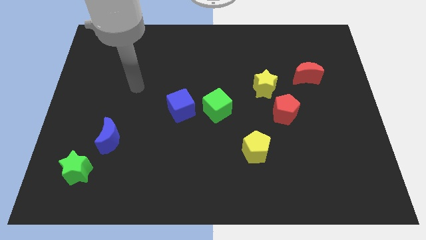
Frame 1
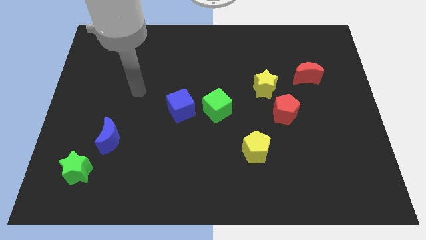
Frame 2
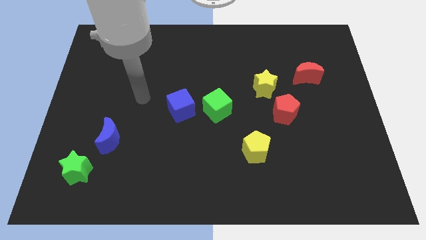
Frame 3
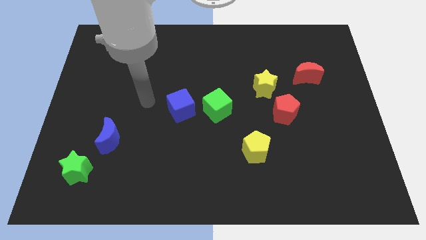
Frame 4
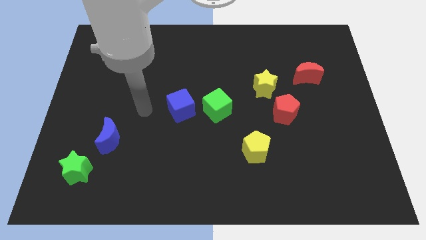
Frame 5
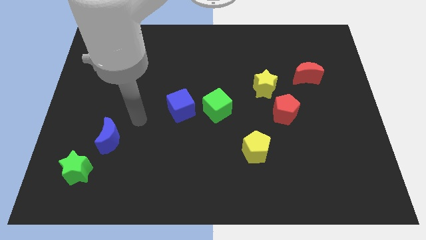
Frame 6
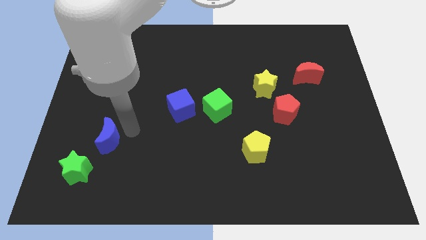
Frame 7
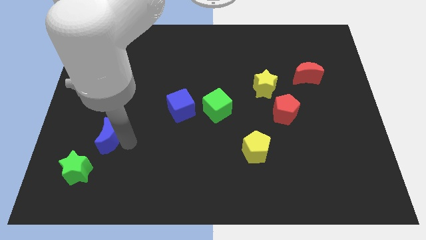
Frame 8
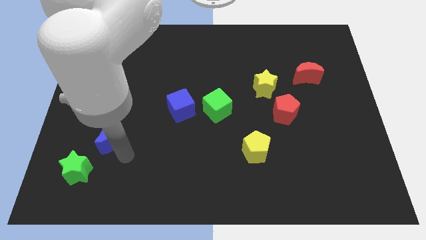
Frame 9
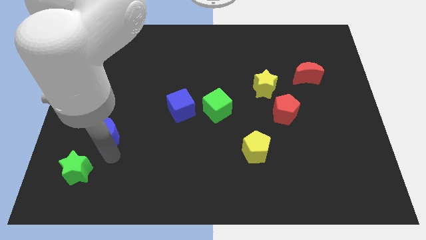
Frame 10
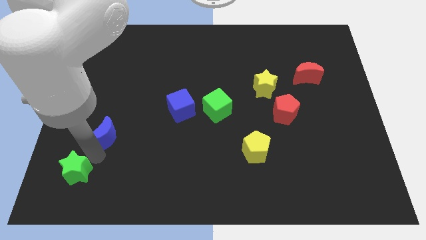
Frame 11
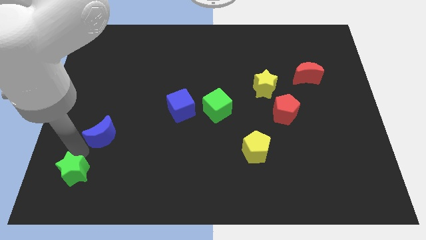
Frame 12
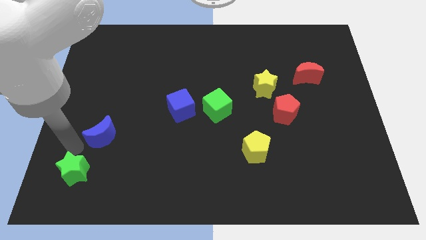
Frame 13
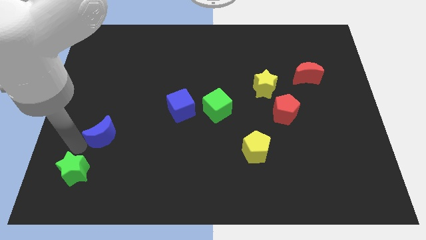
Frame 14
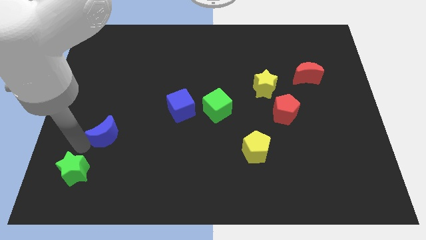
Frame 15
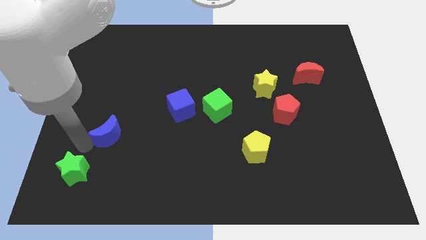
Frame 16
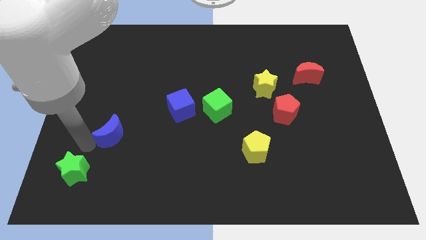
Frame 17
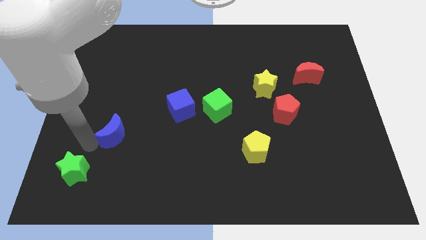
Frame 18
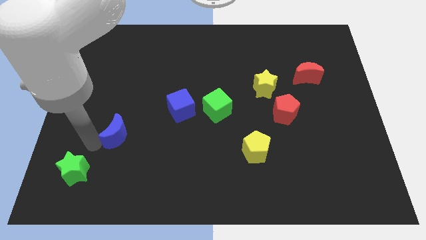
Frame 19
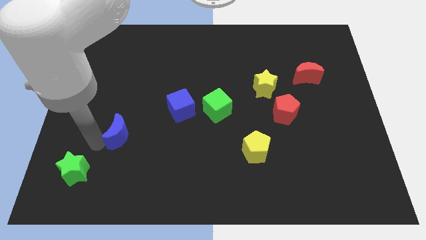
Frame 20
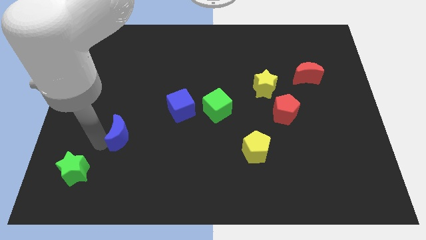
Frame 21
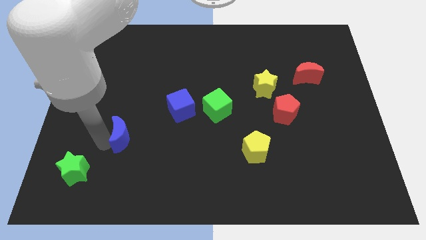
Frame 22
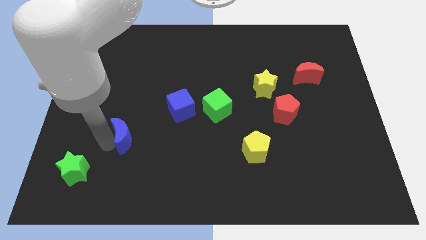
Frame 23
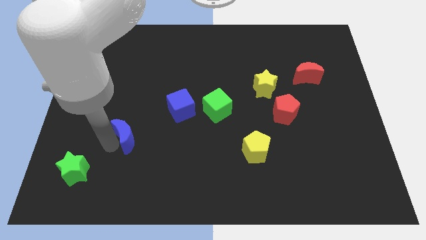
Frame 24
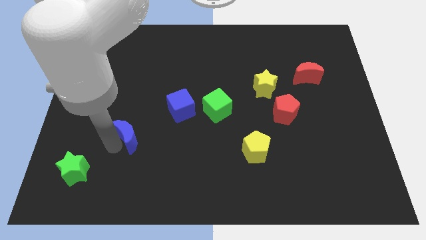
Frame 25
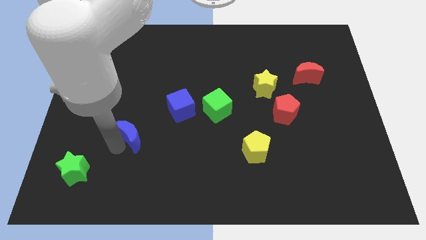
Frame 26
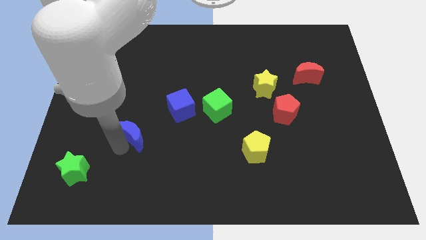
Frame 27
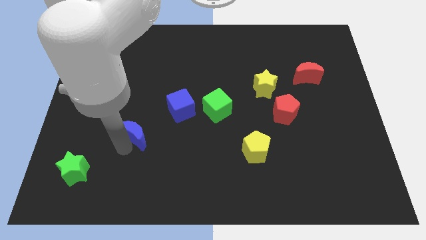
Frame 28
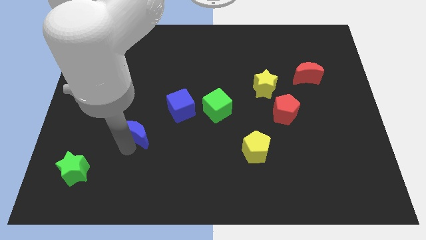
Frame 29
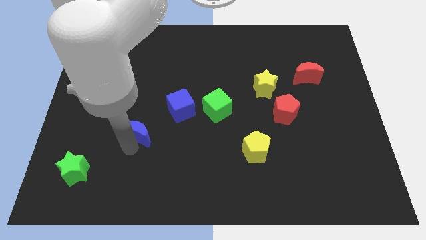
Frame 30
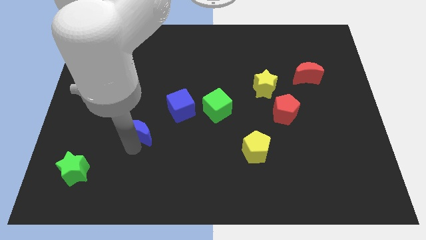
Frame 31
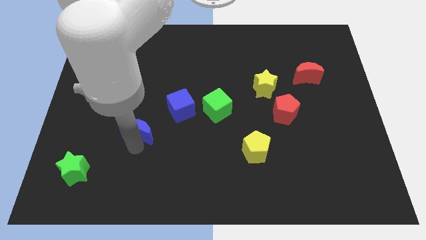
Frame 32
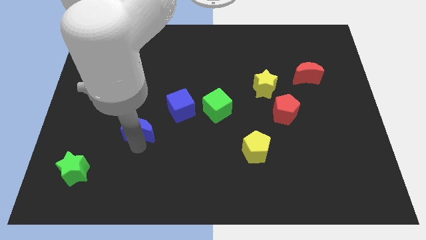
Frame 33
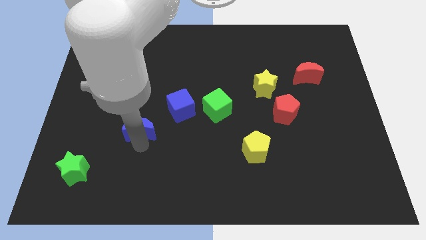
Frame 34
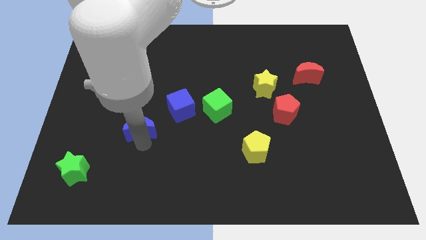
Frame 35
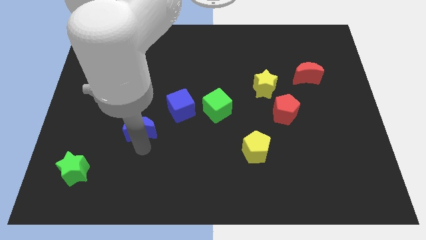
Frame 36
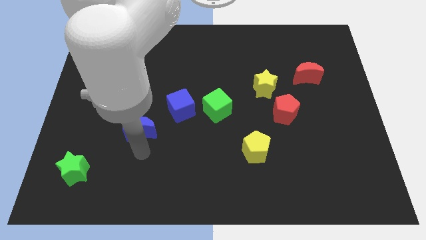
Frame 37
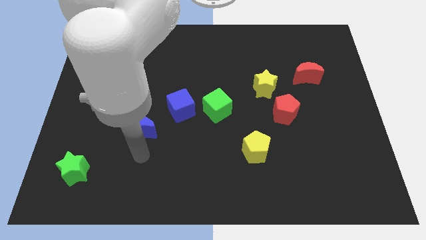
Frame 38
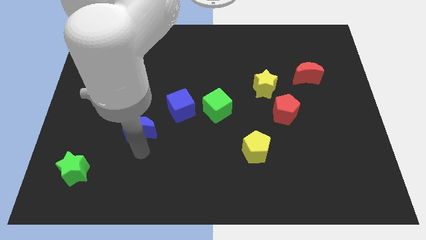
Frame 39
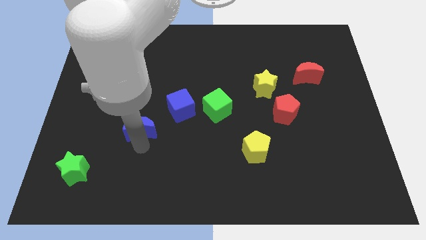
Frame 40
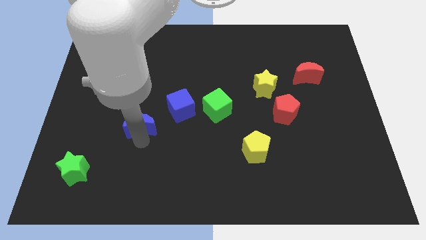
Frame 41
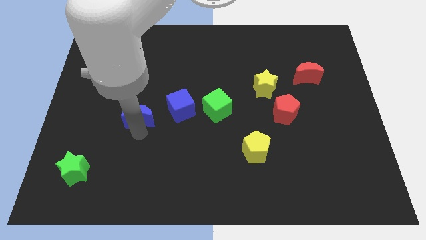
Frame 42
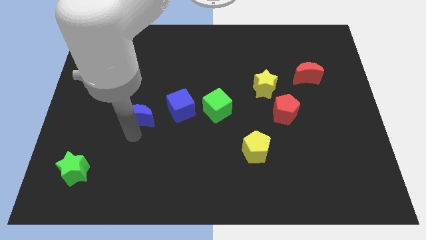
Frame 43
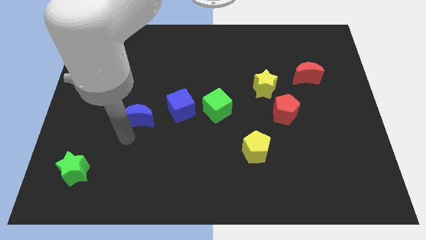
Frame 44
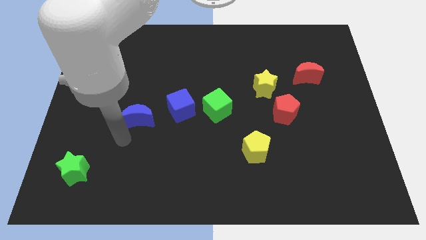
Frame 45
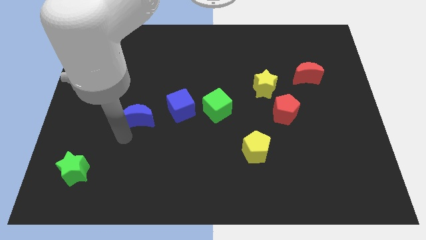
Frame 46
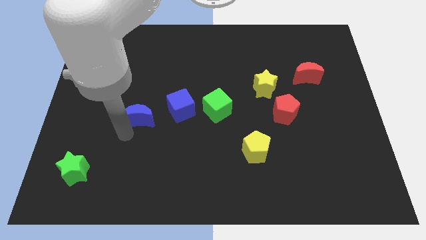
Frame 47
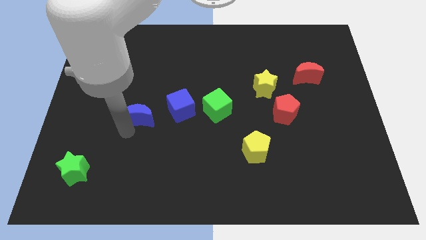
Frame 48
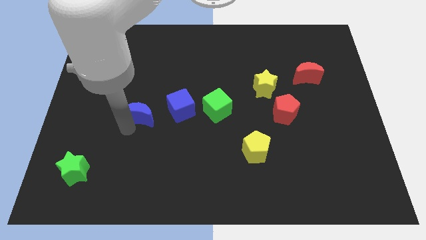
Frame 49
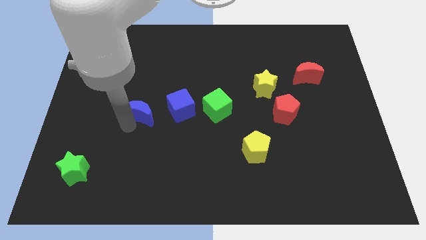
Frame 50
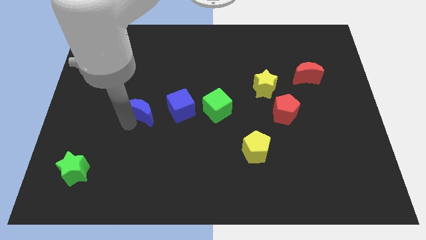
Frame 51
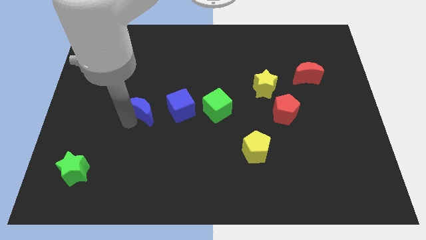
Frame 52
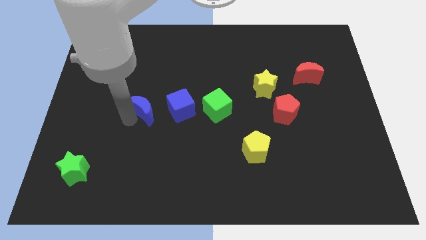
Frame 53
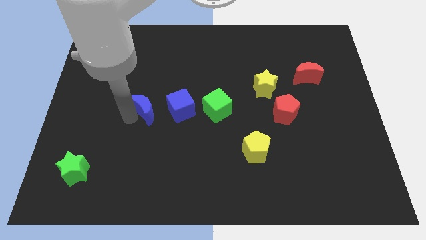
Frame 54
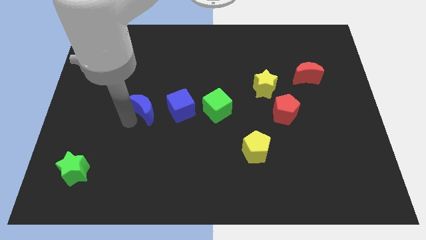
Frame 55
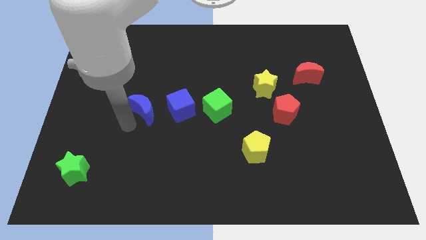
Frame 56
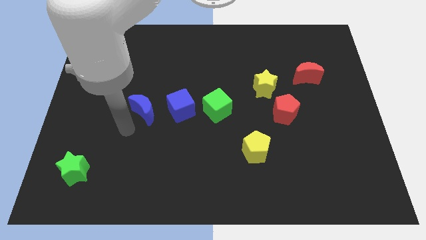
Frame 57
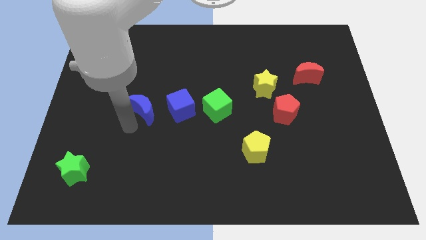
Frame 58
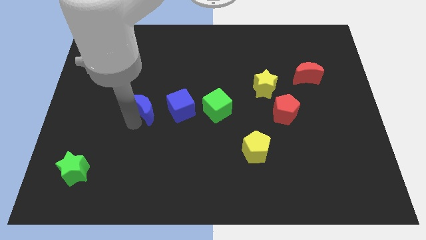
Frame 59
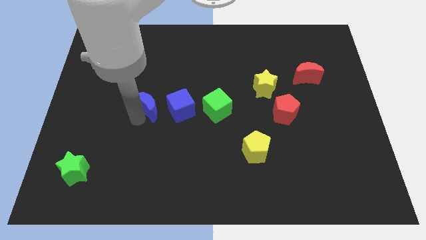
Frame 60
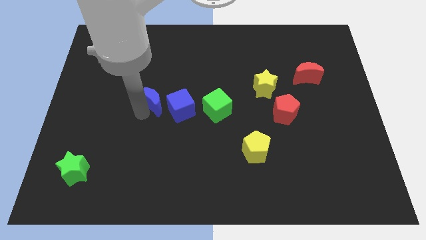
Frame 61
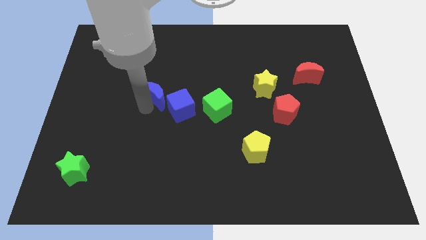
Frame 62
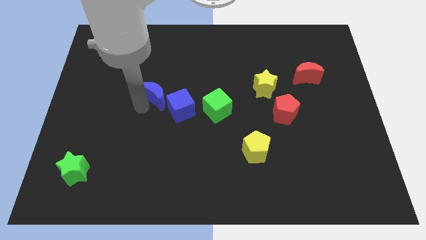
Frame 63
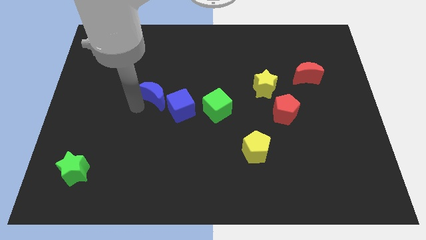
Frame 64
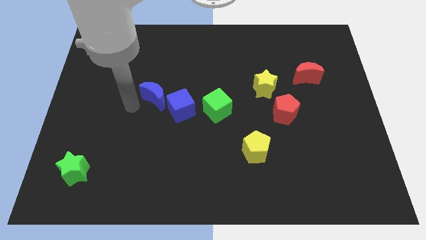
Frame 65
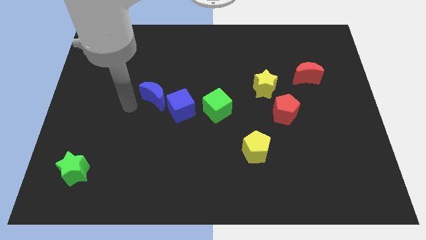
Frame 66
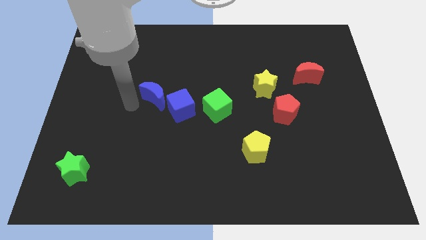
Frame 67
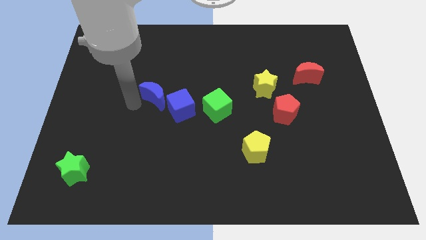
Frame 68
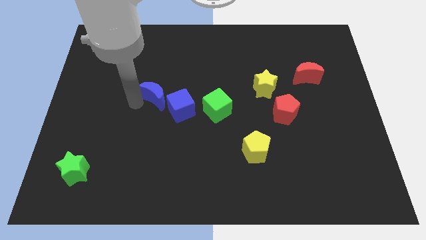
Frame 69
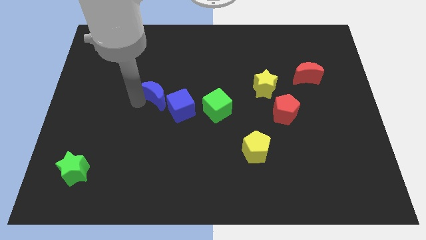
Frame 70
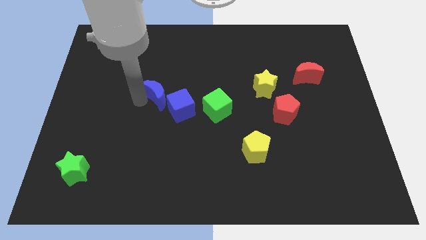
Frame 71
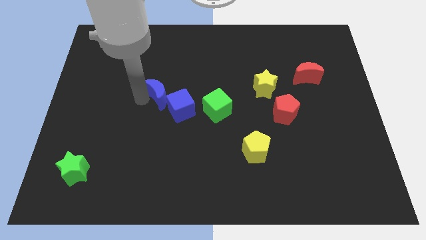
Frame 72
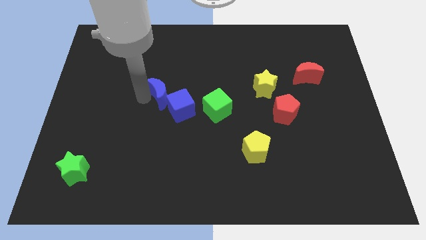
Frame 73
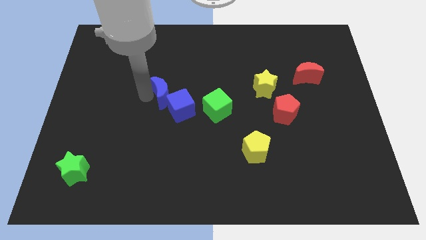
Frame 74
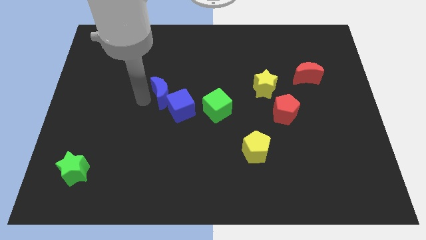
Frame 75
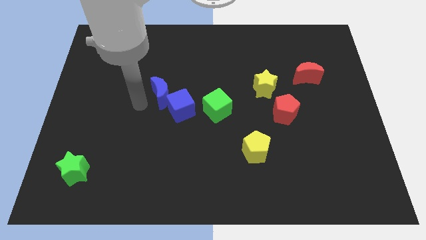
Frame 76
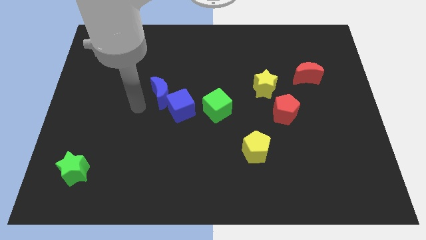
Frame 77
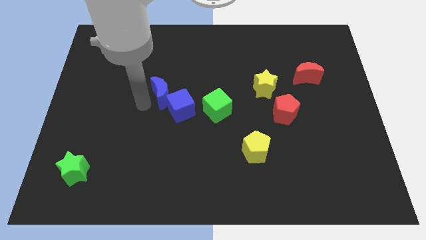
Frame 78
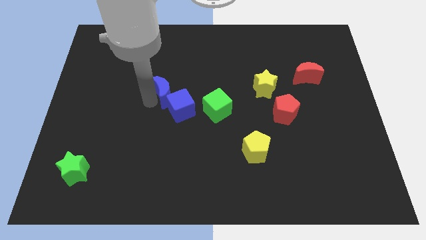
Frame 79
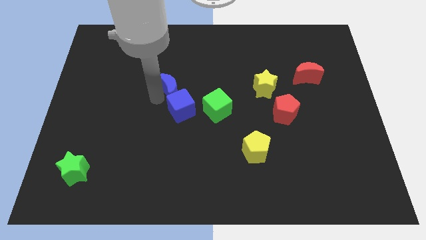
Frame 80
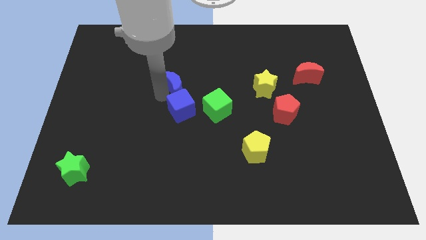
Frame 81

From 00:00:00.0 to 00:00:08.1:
move the blue moon up and right
